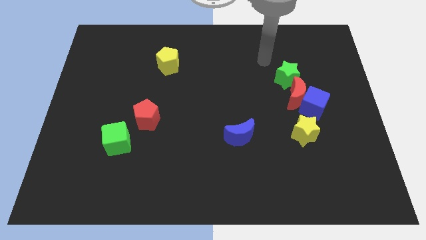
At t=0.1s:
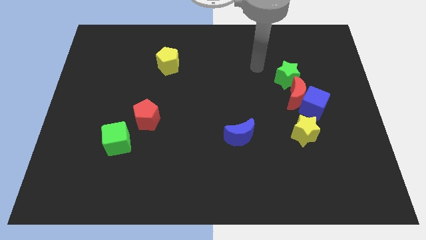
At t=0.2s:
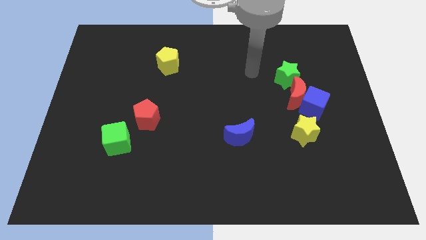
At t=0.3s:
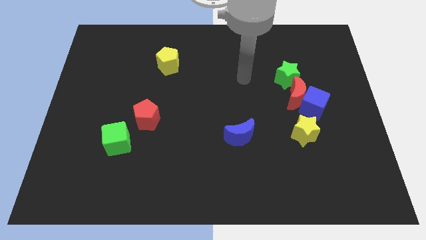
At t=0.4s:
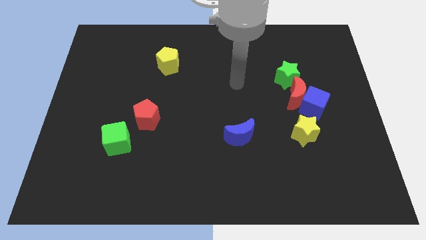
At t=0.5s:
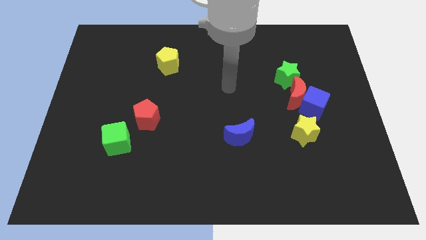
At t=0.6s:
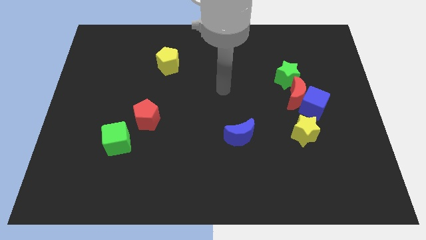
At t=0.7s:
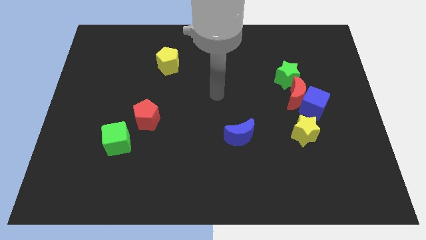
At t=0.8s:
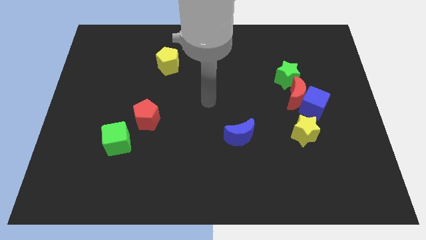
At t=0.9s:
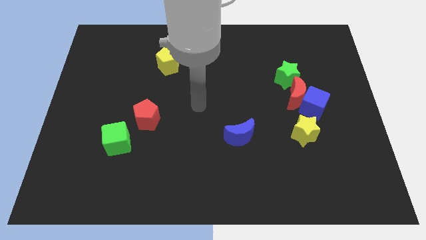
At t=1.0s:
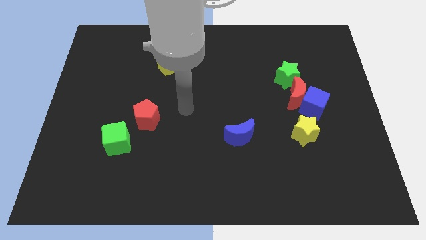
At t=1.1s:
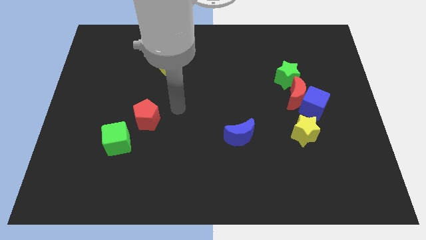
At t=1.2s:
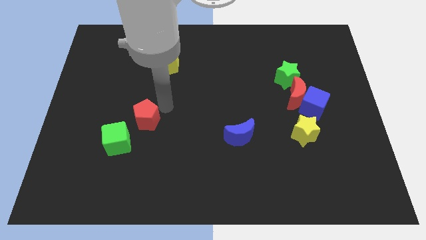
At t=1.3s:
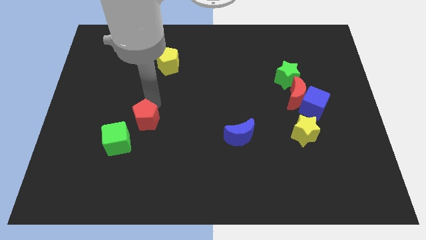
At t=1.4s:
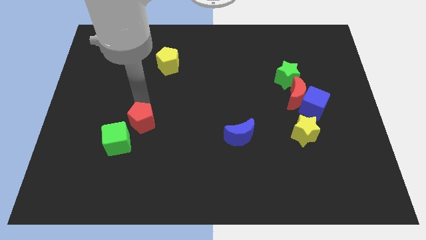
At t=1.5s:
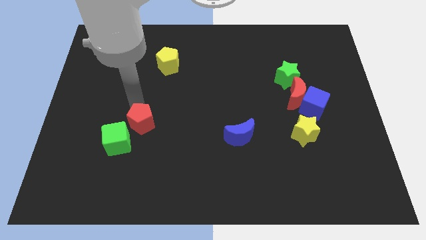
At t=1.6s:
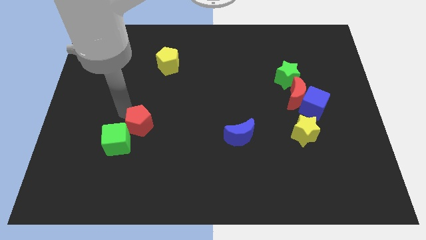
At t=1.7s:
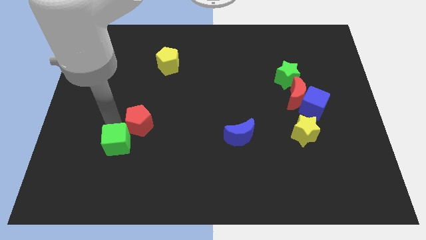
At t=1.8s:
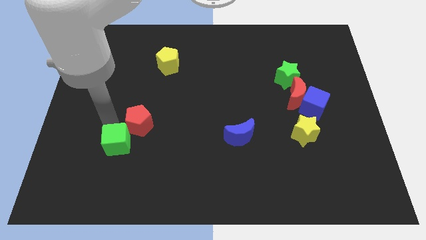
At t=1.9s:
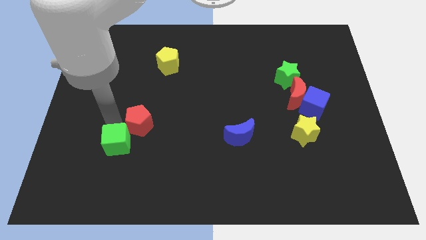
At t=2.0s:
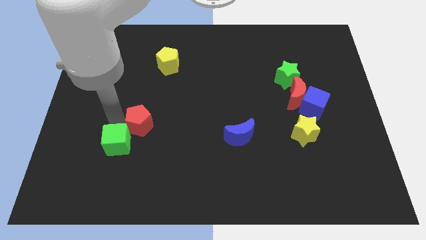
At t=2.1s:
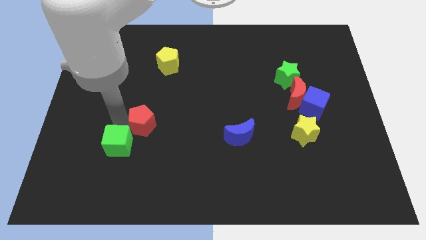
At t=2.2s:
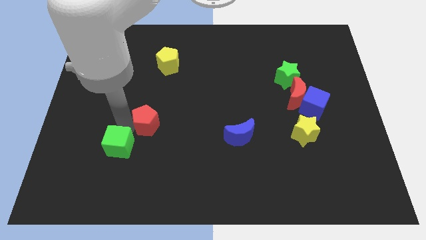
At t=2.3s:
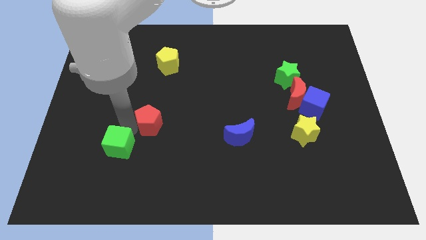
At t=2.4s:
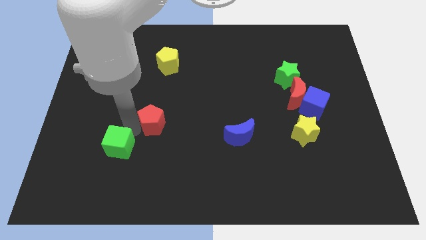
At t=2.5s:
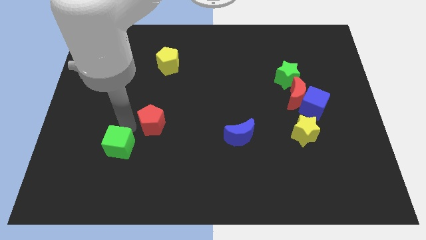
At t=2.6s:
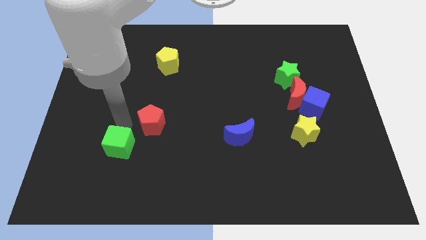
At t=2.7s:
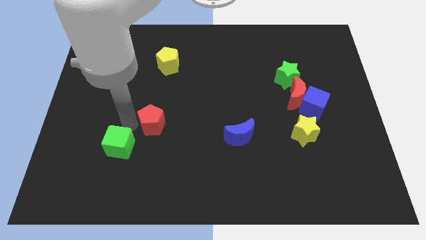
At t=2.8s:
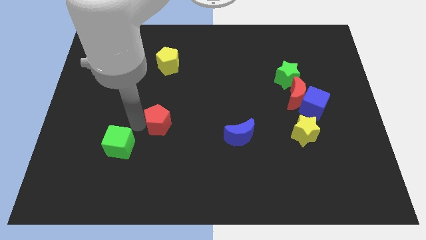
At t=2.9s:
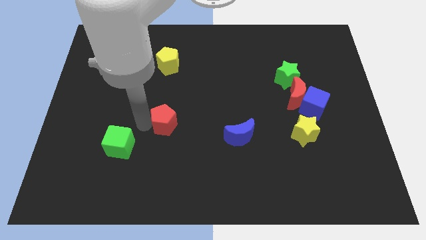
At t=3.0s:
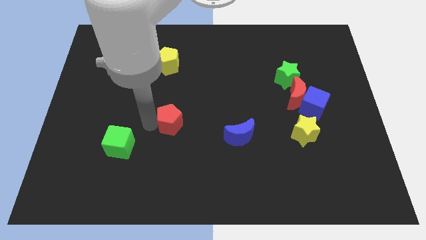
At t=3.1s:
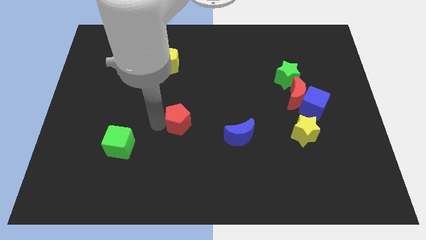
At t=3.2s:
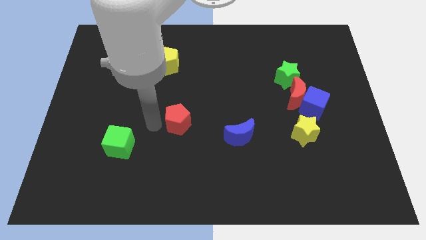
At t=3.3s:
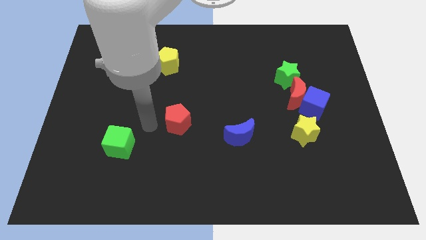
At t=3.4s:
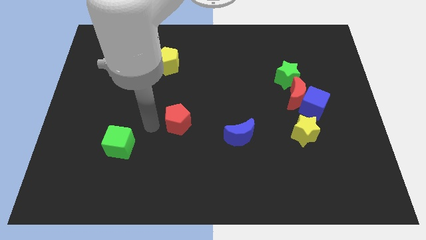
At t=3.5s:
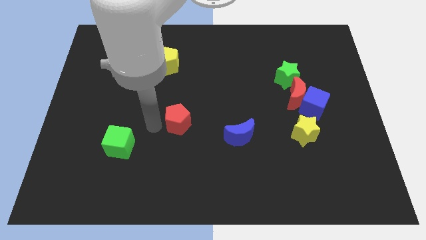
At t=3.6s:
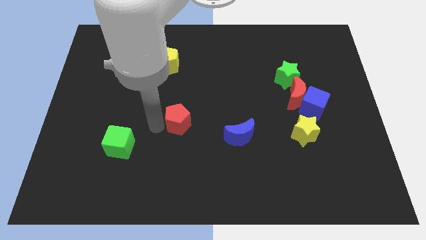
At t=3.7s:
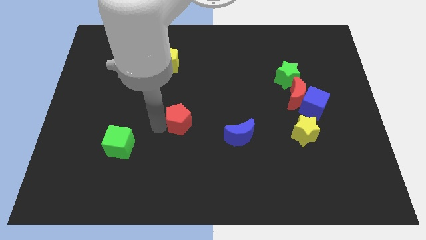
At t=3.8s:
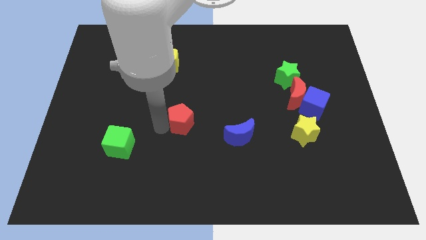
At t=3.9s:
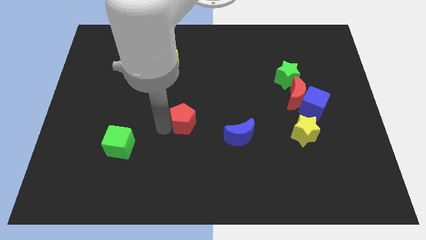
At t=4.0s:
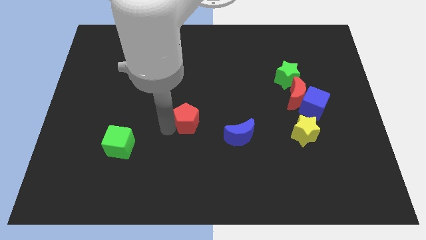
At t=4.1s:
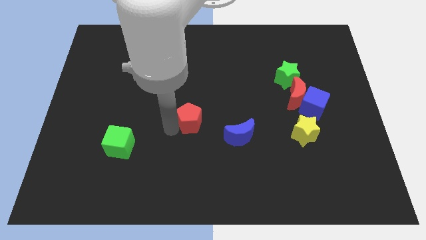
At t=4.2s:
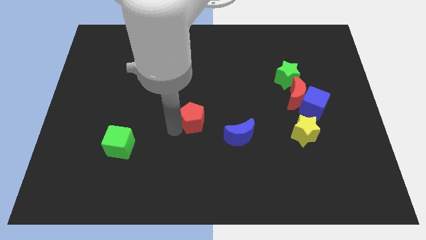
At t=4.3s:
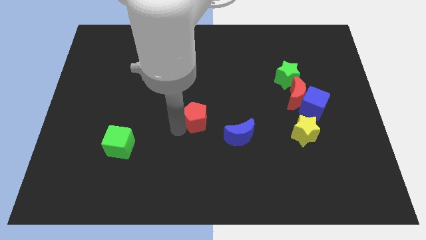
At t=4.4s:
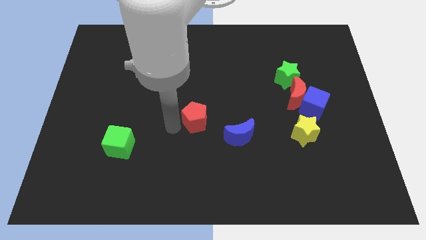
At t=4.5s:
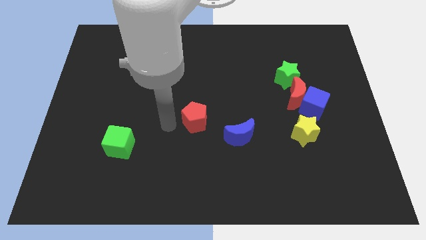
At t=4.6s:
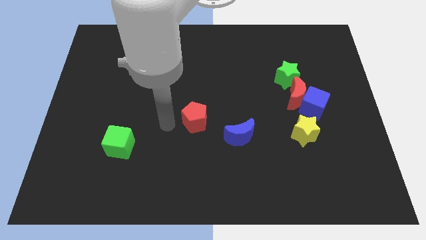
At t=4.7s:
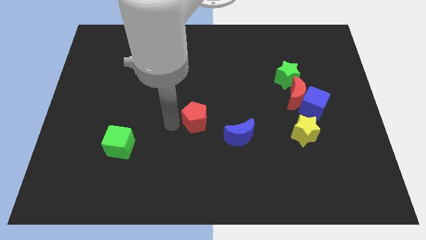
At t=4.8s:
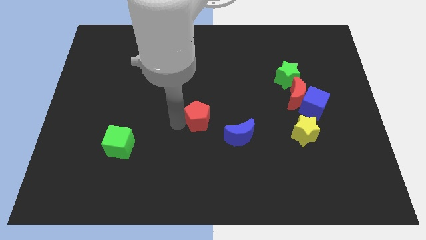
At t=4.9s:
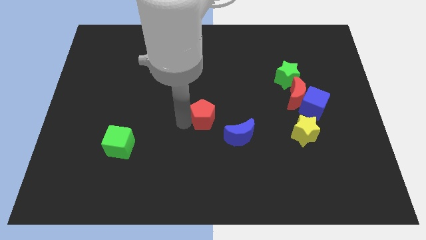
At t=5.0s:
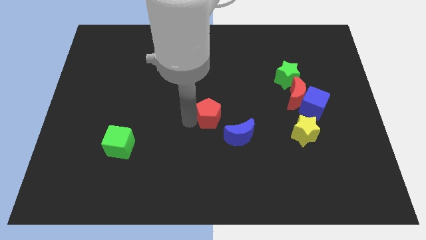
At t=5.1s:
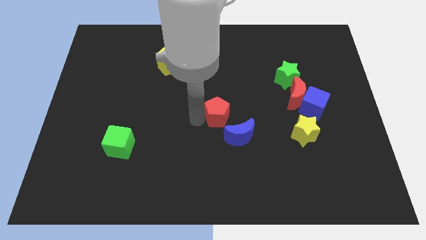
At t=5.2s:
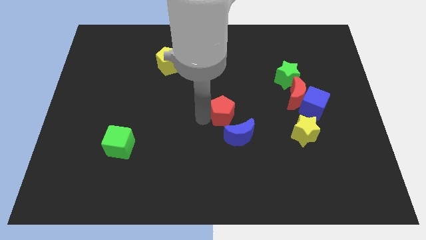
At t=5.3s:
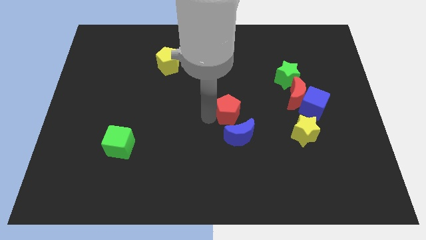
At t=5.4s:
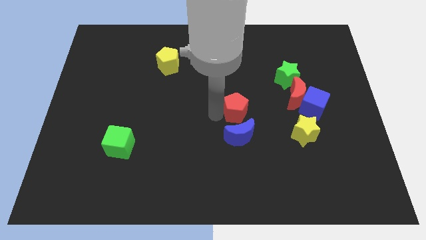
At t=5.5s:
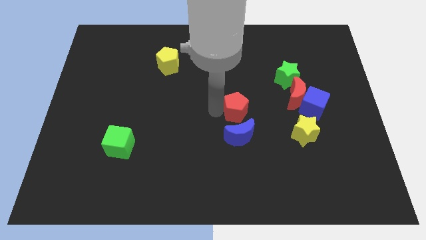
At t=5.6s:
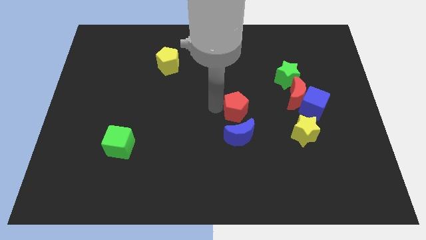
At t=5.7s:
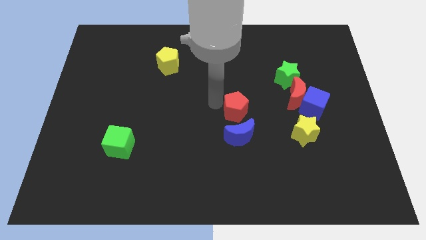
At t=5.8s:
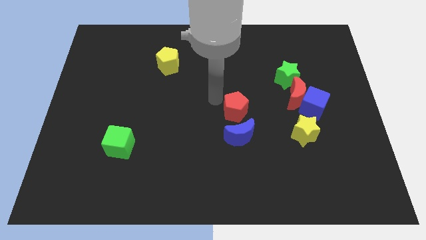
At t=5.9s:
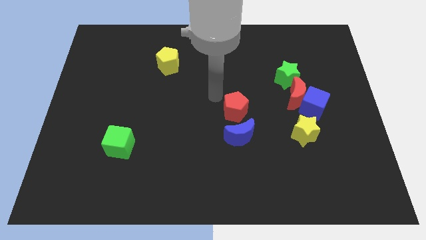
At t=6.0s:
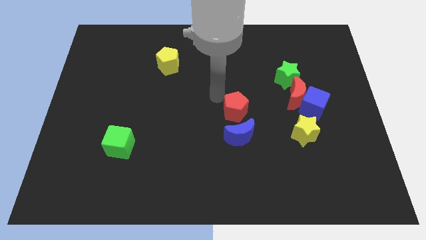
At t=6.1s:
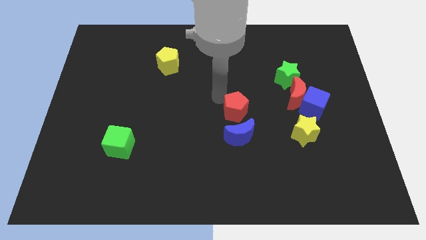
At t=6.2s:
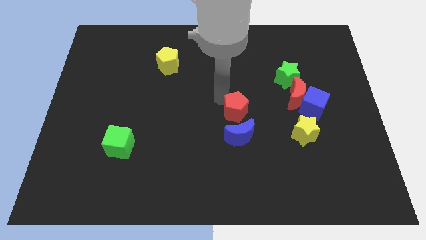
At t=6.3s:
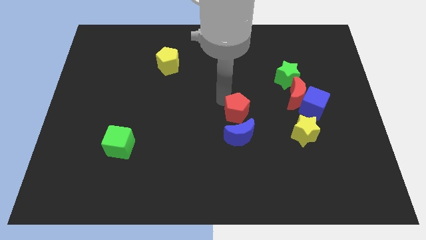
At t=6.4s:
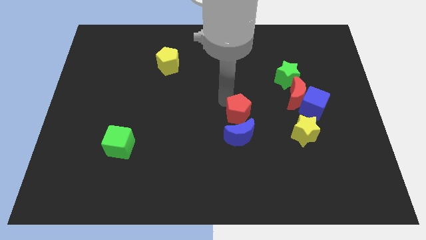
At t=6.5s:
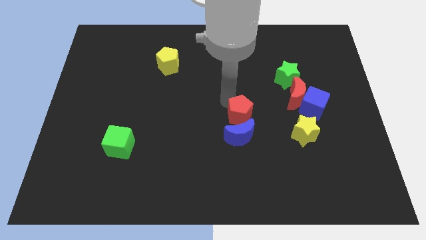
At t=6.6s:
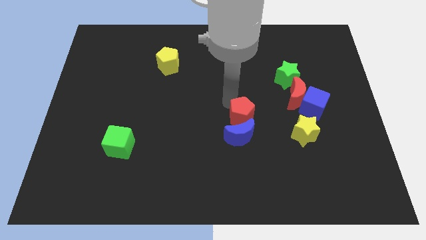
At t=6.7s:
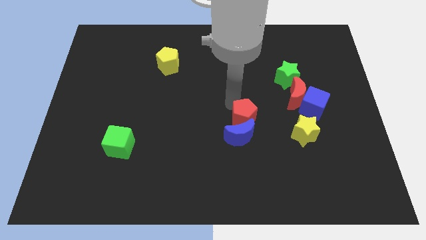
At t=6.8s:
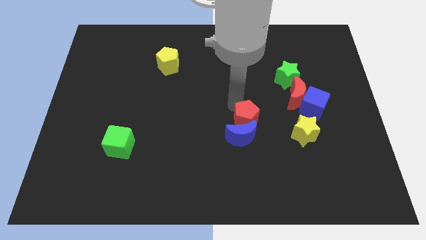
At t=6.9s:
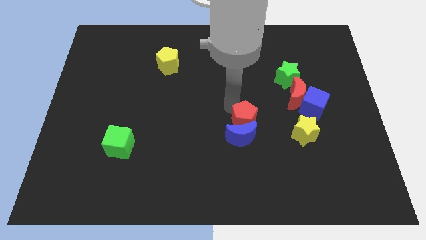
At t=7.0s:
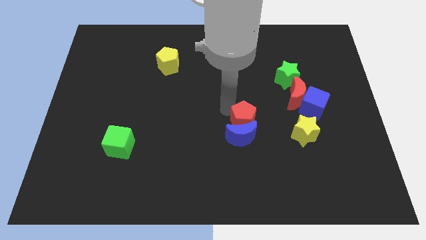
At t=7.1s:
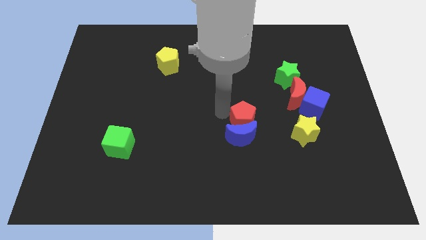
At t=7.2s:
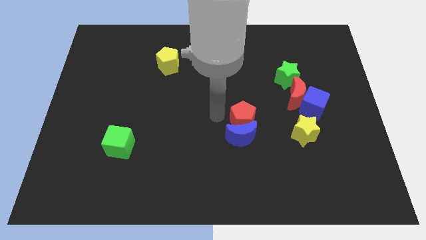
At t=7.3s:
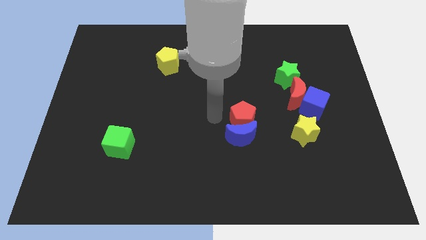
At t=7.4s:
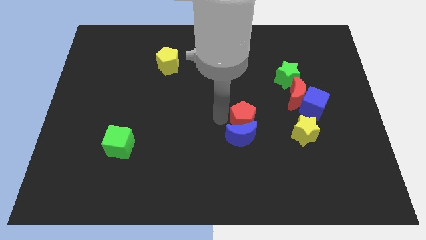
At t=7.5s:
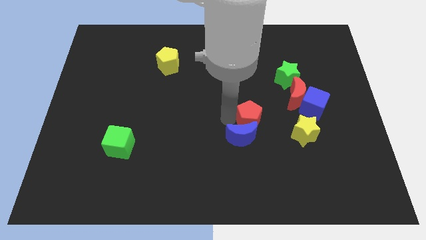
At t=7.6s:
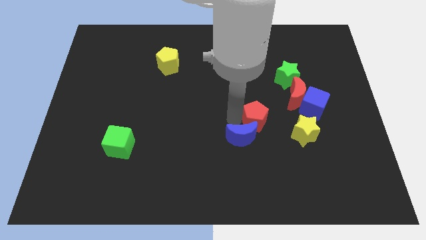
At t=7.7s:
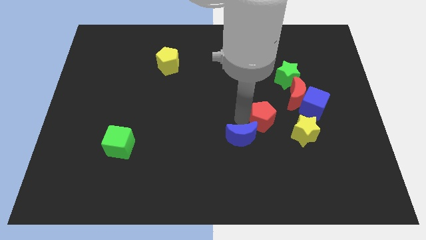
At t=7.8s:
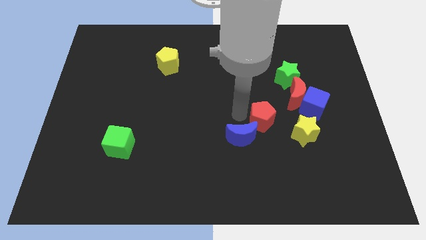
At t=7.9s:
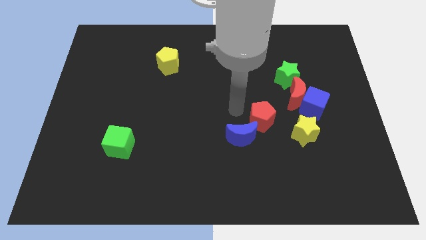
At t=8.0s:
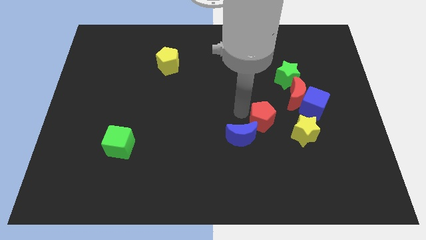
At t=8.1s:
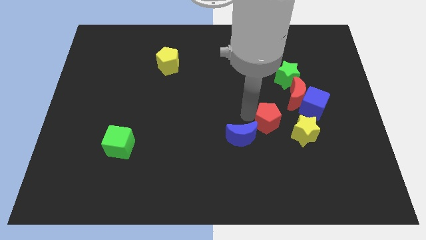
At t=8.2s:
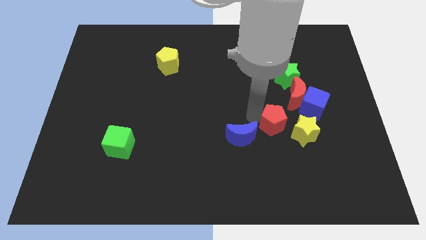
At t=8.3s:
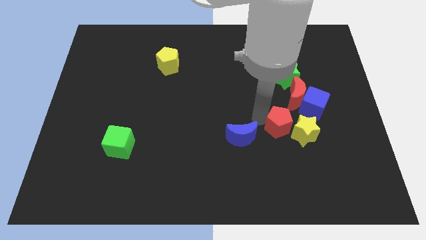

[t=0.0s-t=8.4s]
move the red pentagon towards the yellow star
